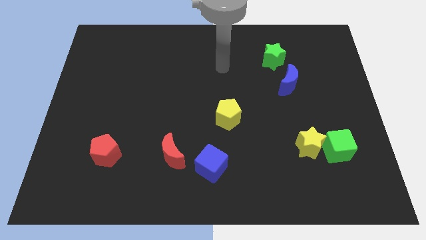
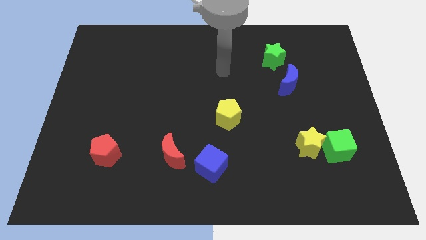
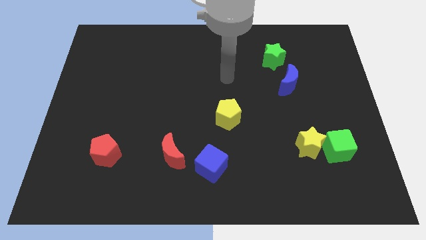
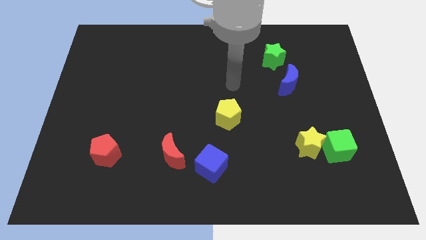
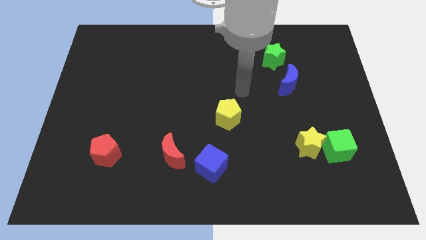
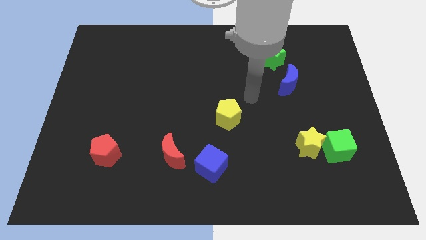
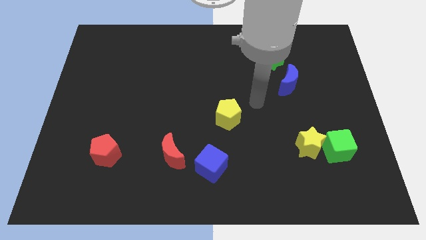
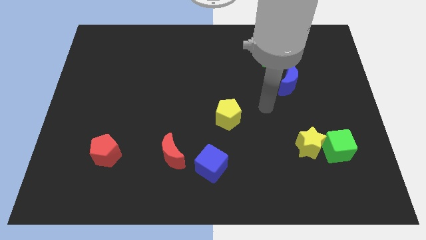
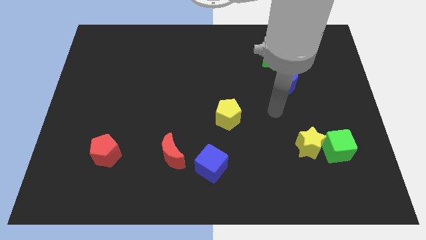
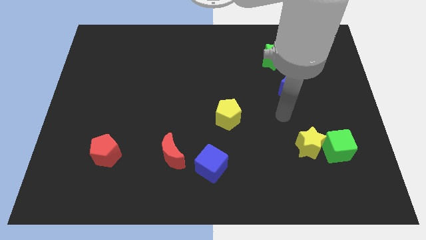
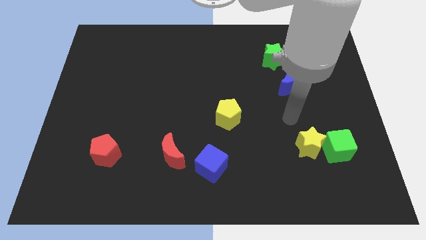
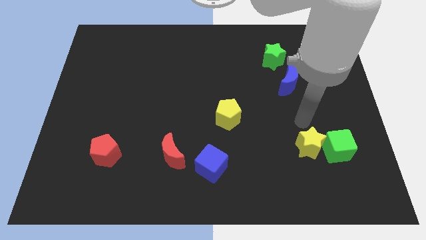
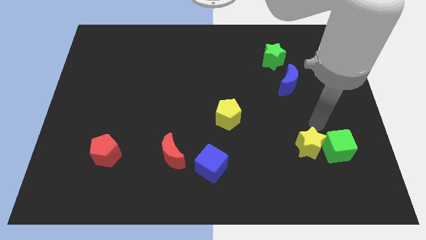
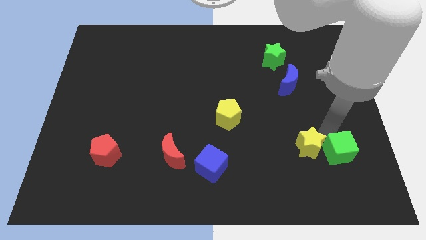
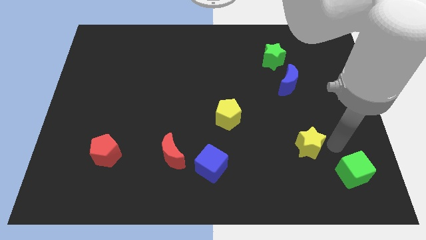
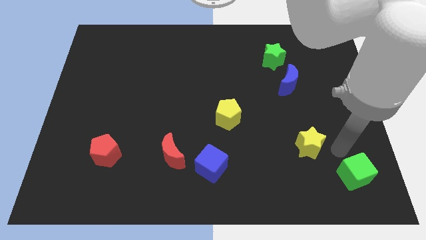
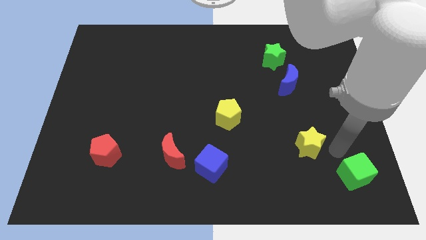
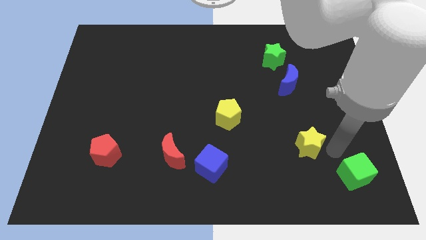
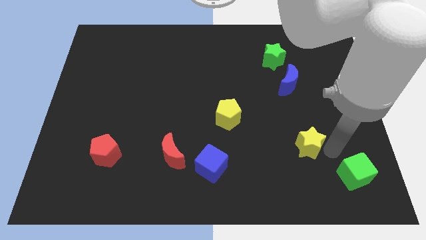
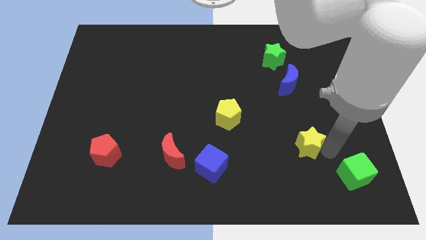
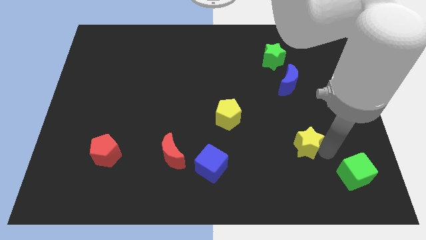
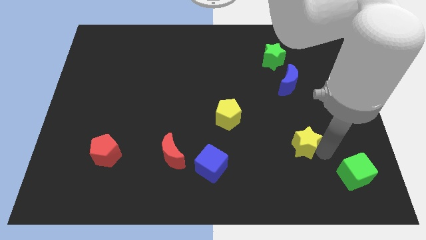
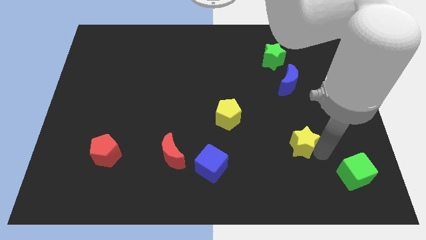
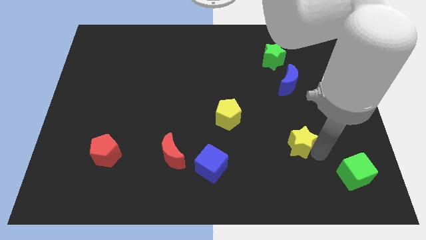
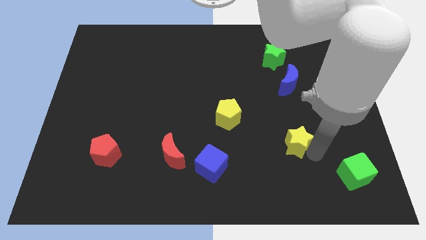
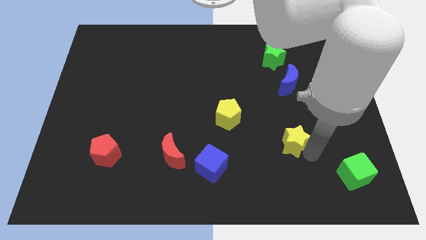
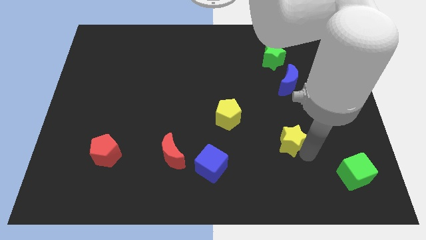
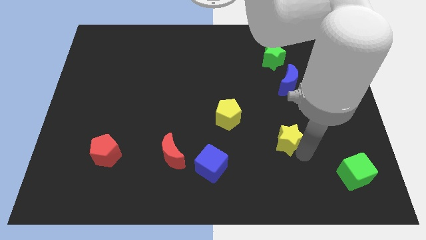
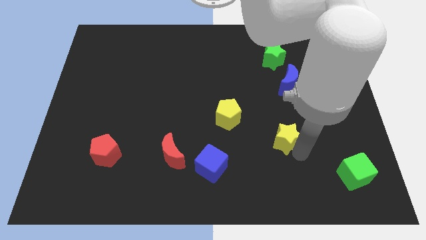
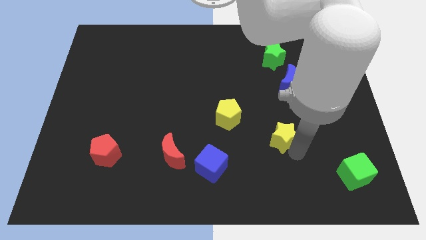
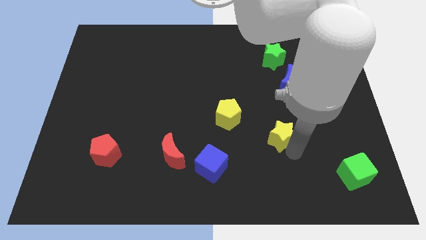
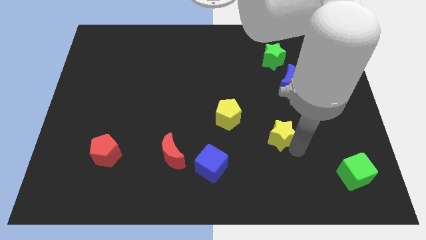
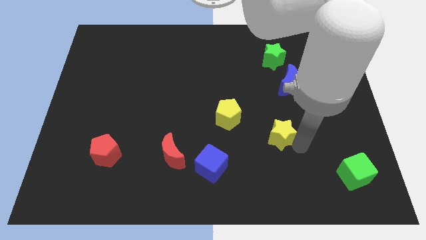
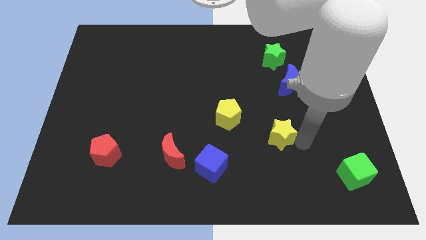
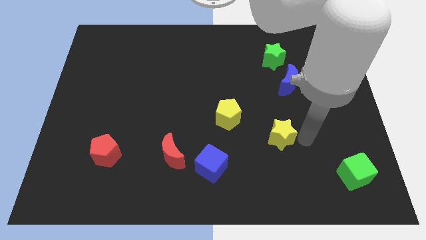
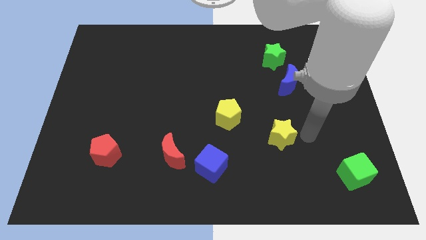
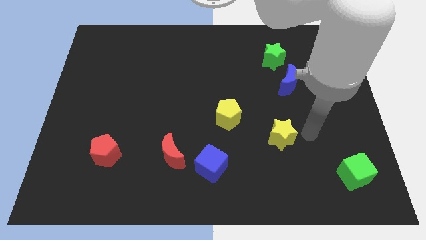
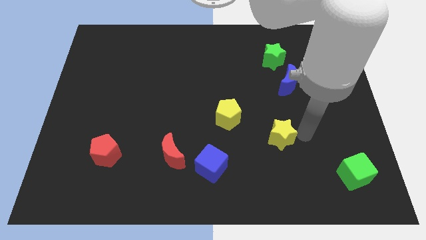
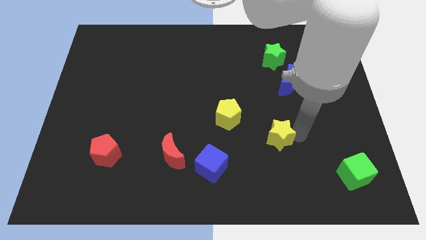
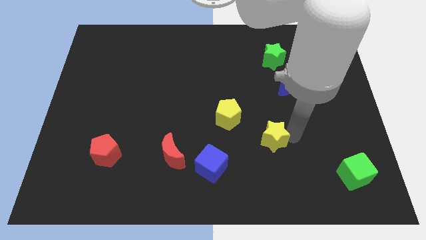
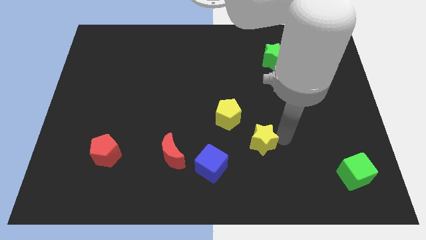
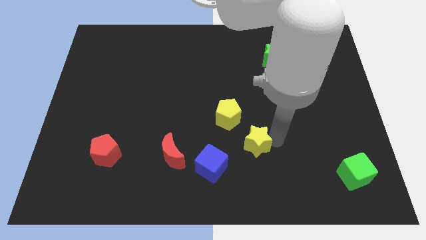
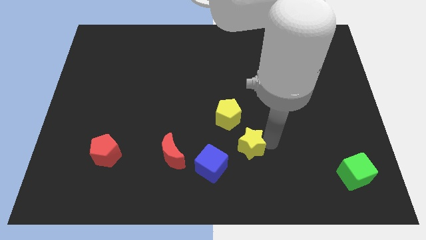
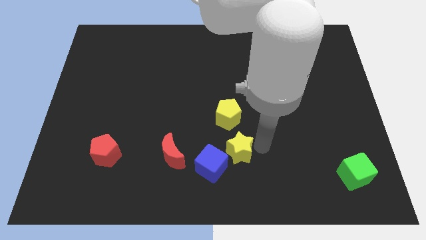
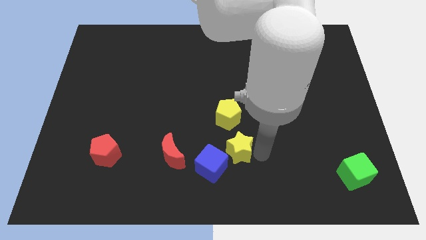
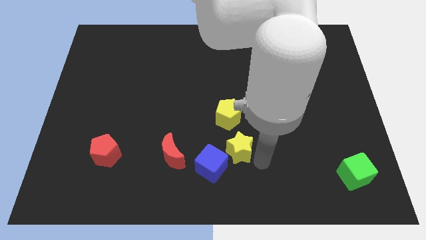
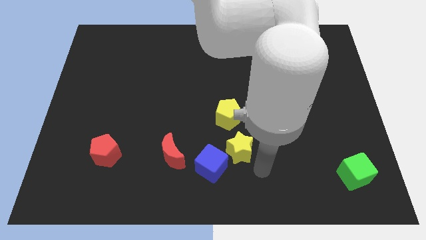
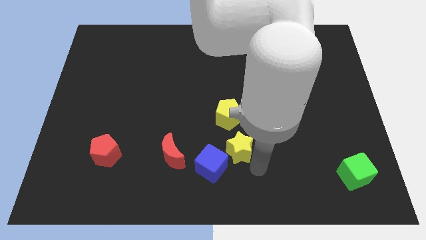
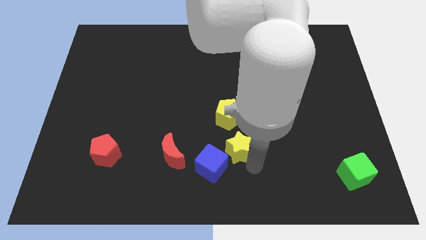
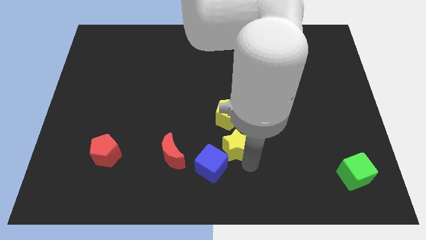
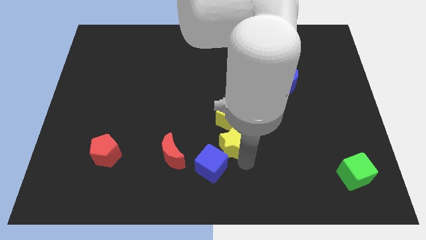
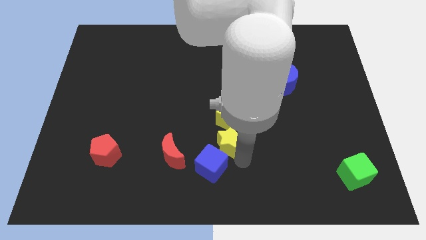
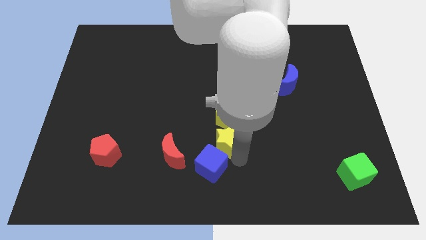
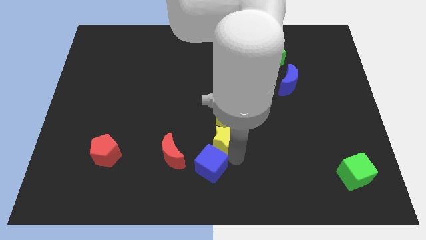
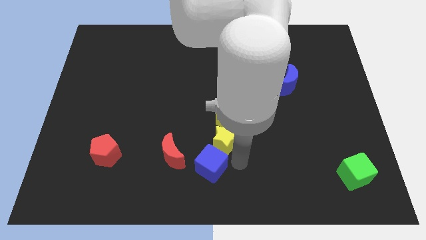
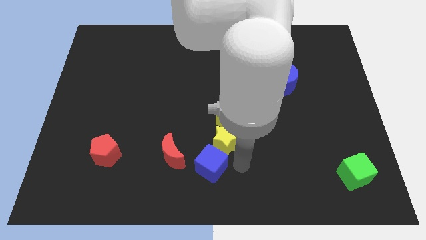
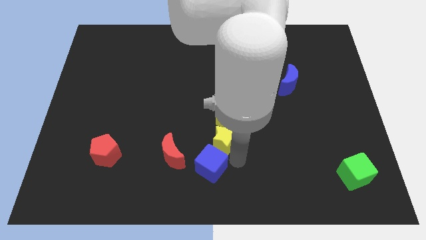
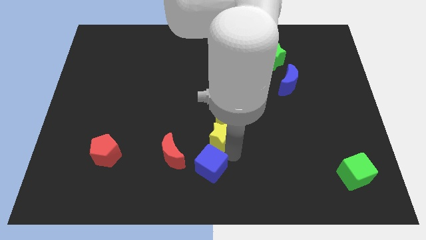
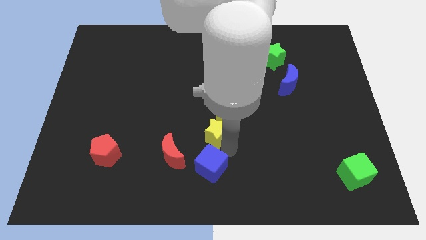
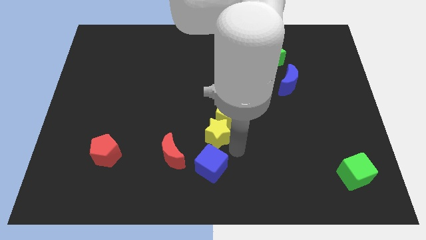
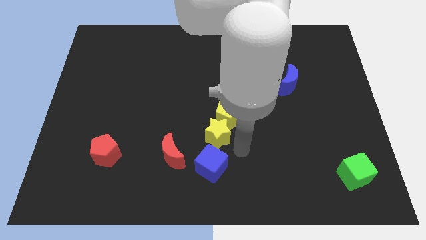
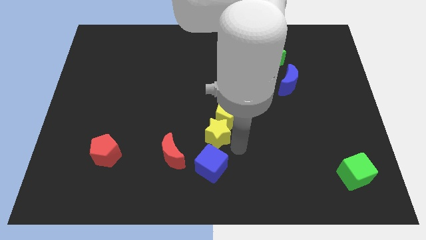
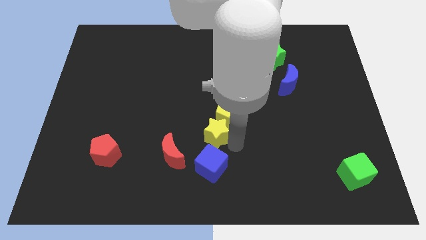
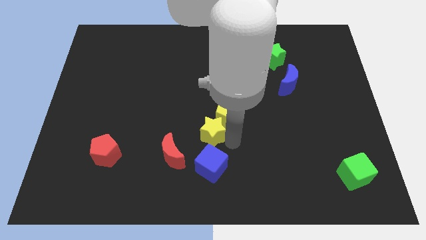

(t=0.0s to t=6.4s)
put the yellow star to the left side of the yellow pentagon

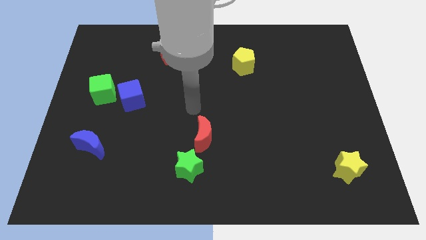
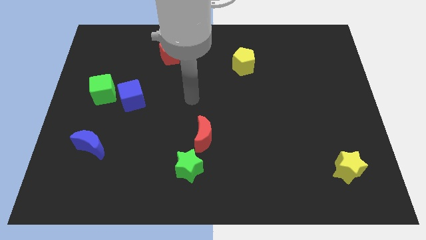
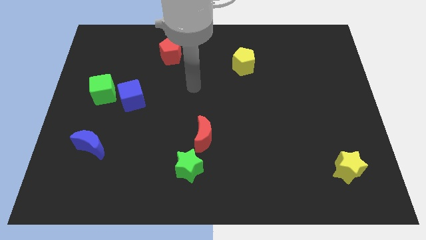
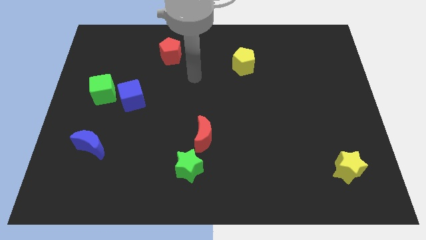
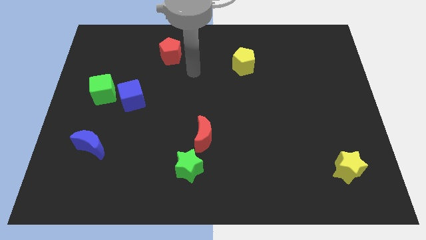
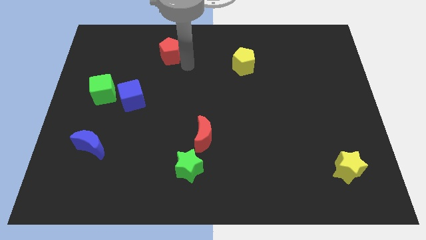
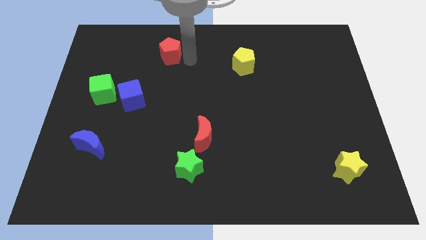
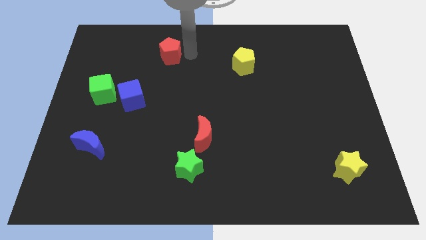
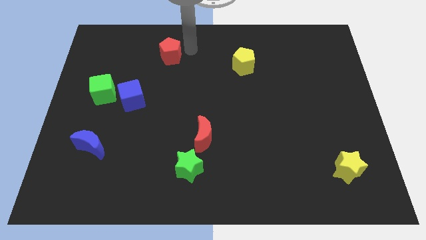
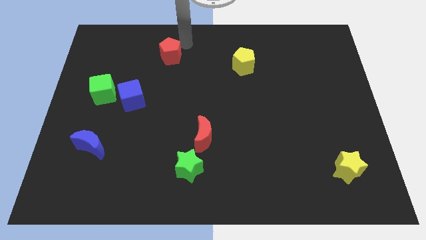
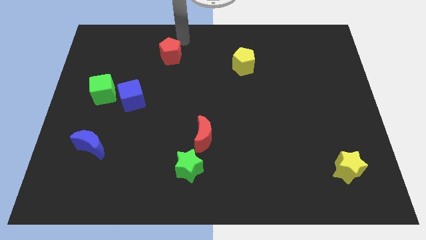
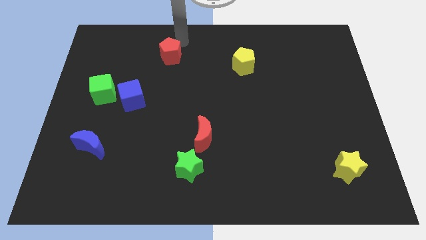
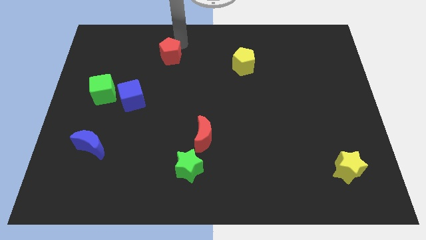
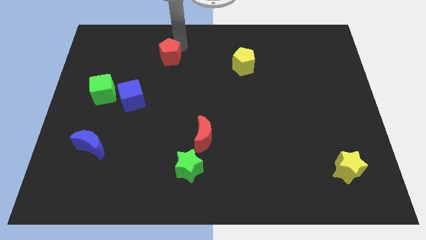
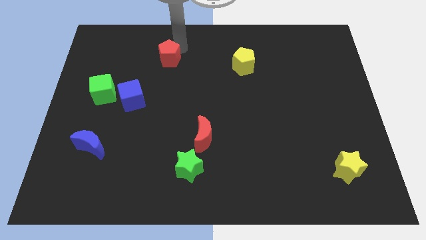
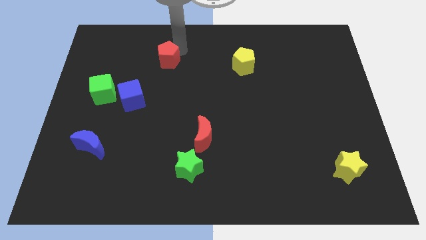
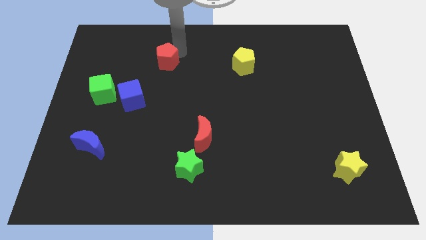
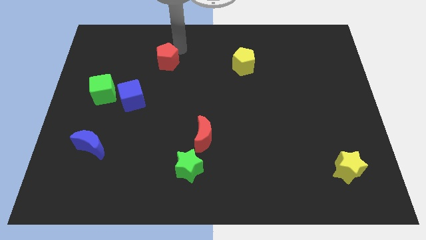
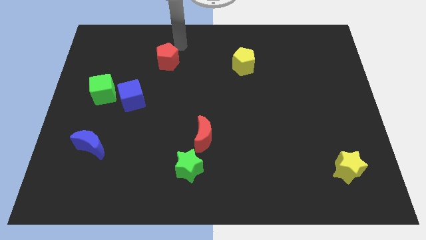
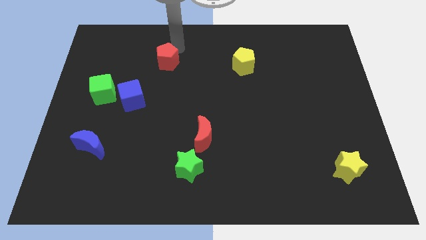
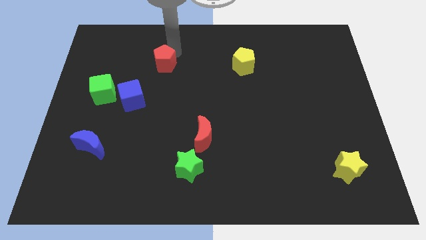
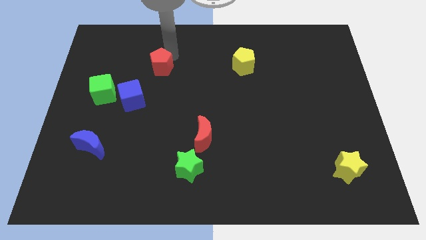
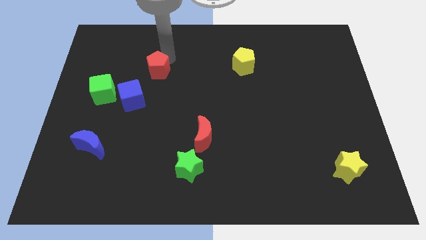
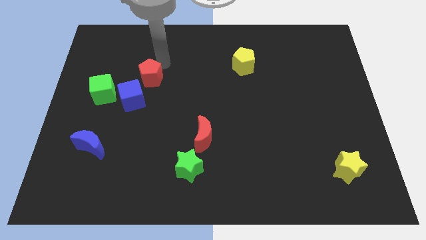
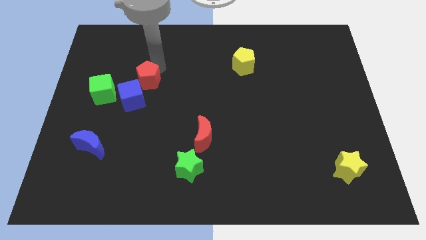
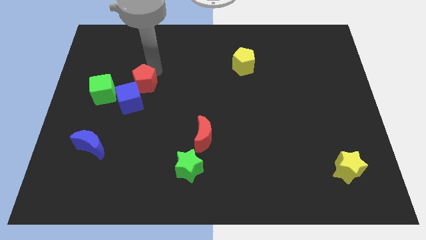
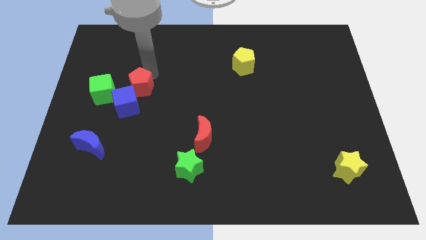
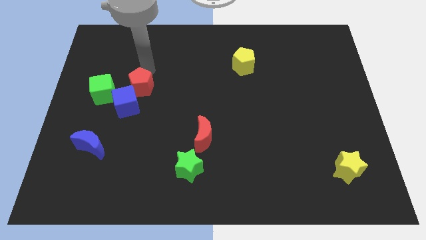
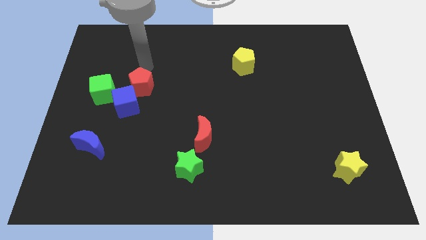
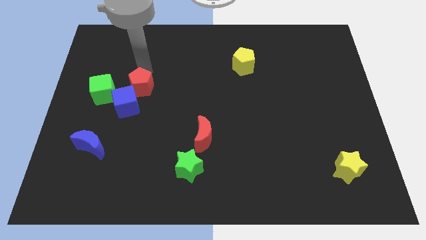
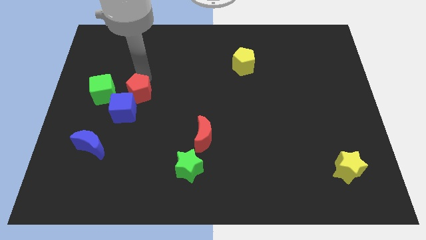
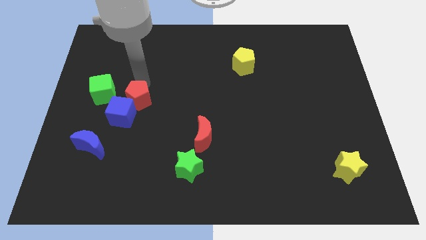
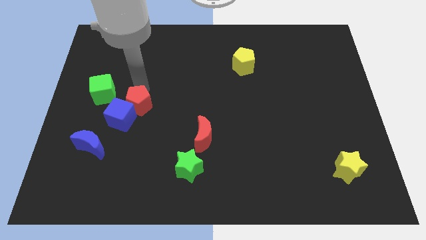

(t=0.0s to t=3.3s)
put the red pentagon to the bottom right of the green cube
